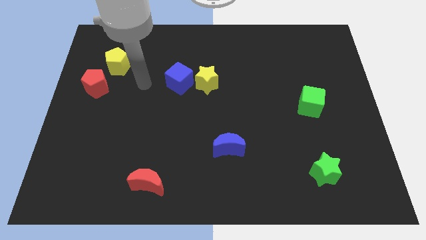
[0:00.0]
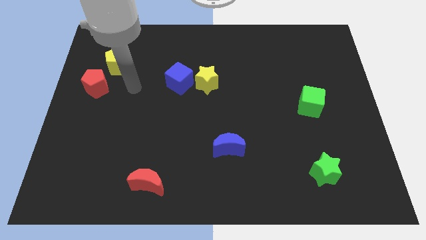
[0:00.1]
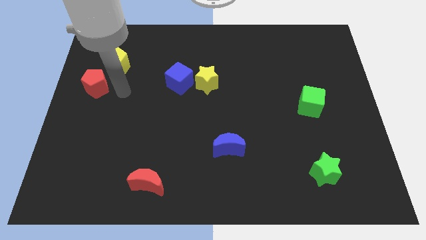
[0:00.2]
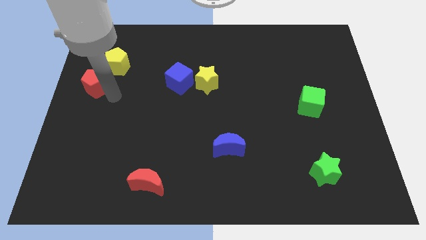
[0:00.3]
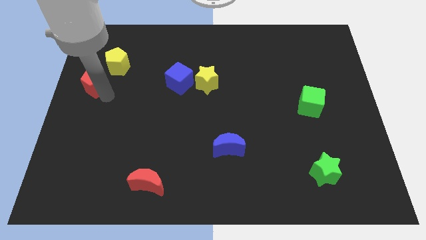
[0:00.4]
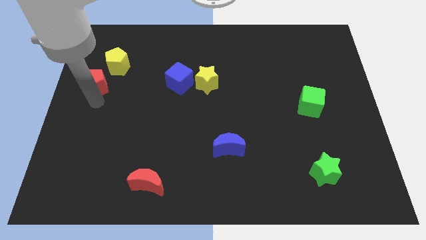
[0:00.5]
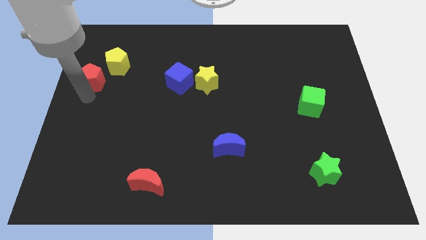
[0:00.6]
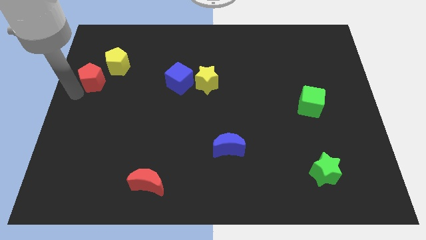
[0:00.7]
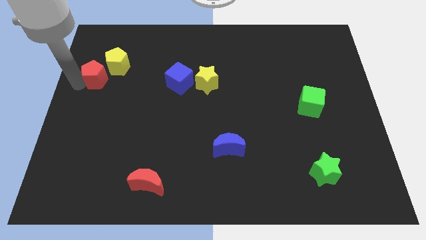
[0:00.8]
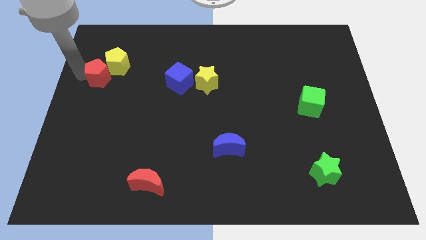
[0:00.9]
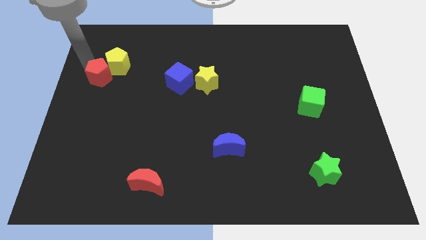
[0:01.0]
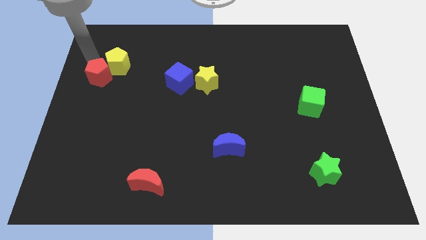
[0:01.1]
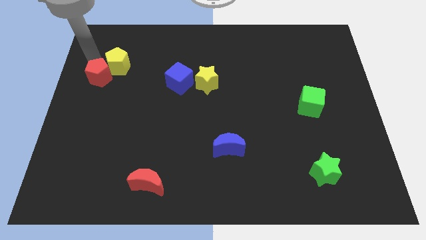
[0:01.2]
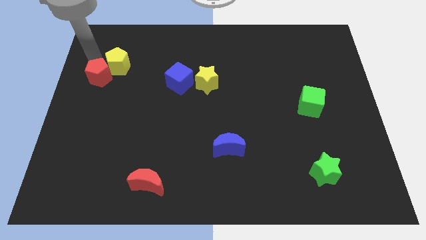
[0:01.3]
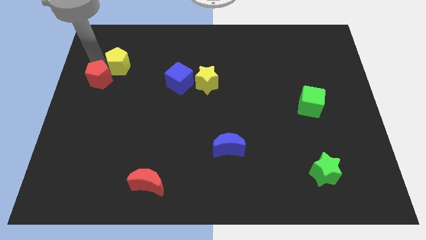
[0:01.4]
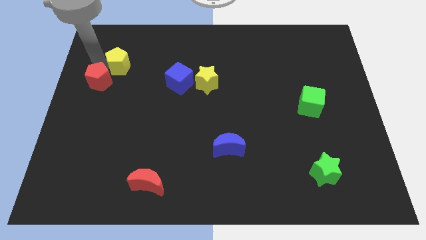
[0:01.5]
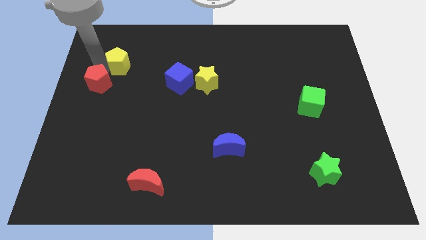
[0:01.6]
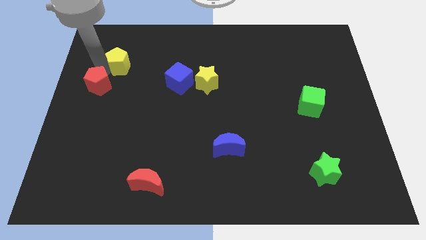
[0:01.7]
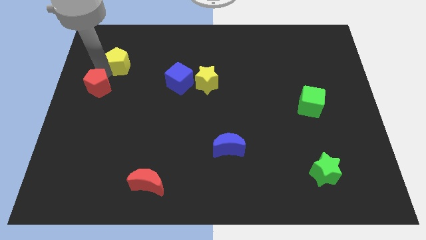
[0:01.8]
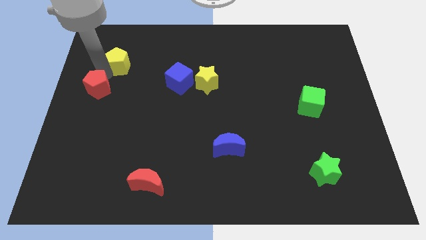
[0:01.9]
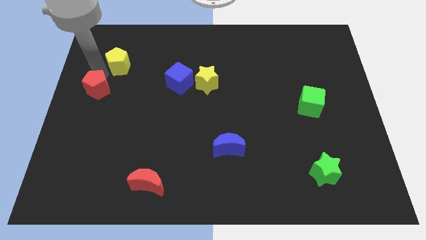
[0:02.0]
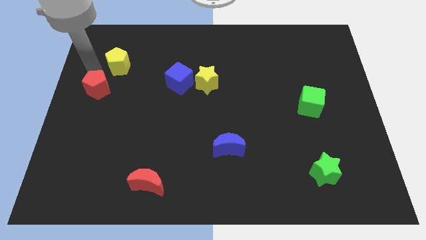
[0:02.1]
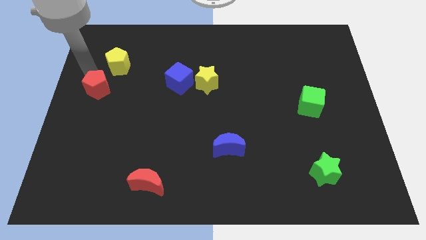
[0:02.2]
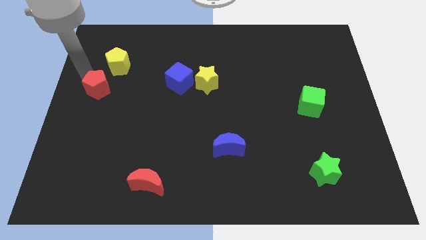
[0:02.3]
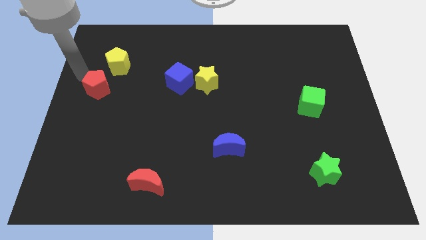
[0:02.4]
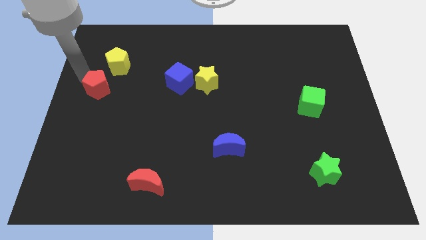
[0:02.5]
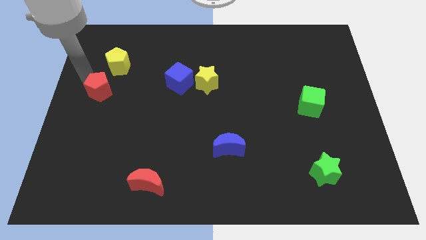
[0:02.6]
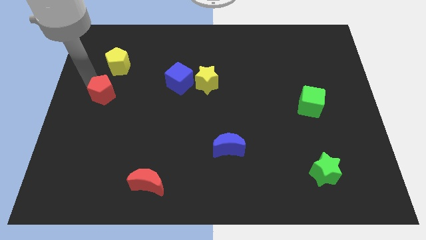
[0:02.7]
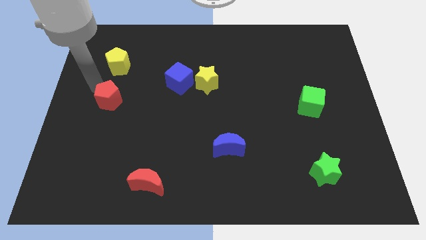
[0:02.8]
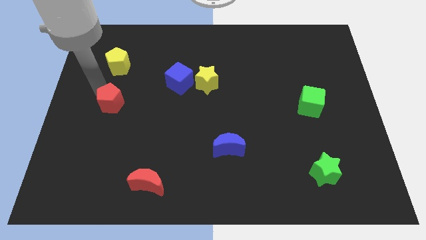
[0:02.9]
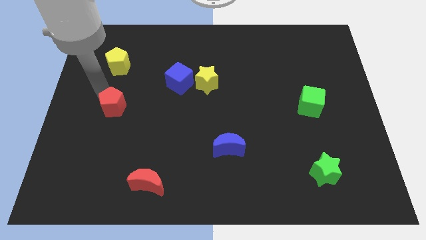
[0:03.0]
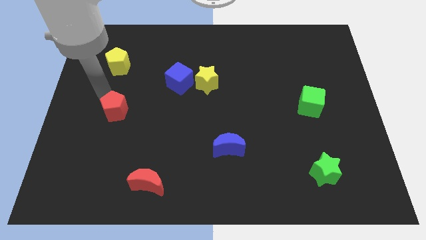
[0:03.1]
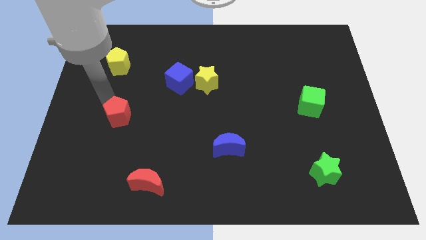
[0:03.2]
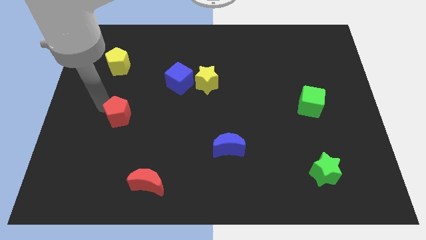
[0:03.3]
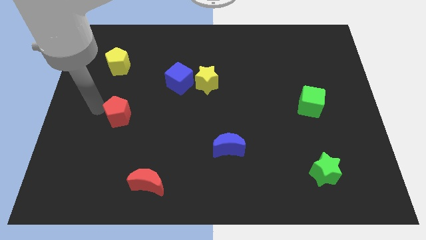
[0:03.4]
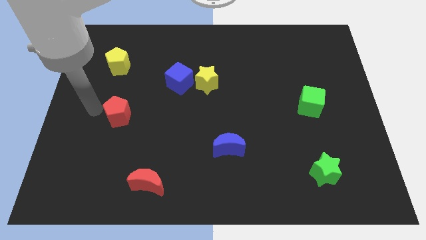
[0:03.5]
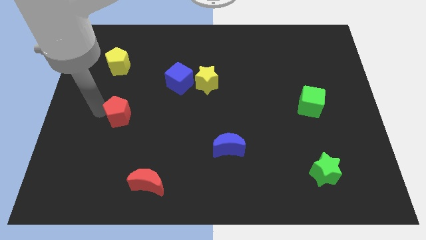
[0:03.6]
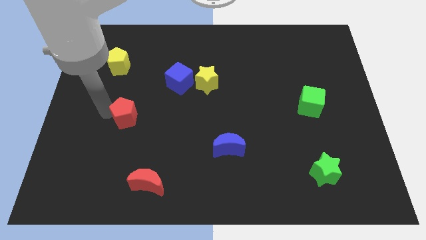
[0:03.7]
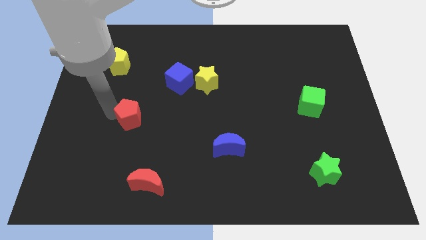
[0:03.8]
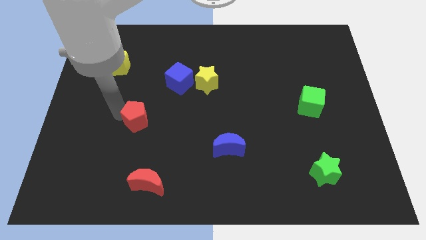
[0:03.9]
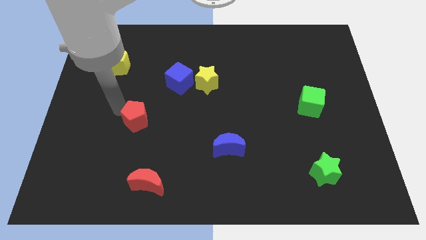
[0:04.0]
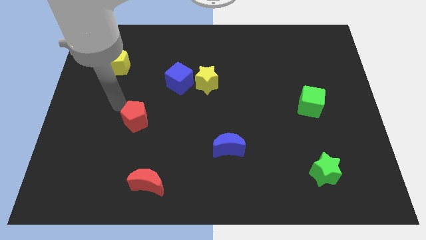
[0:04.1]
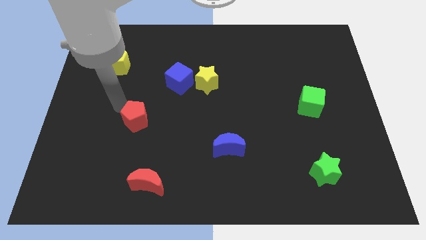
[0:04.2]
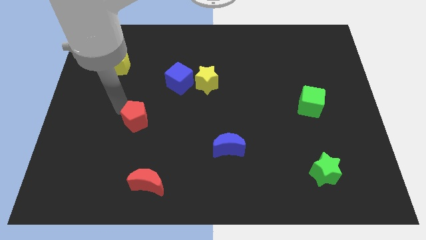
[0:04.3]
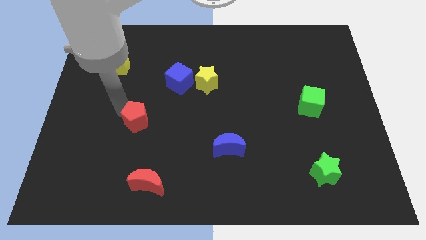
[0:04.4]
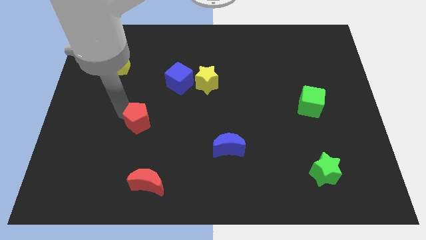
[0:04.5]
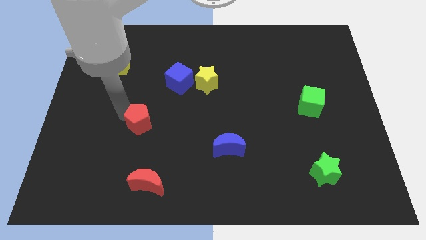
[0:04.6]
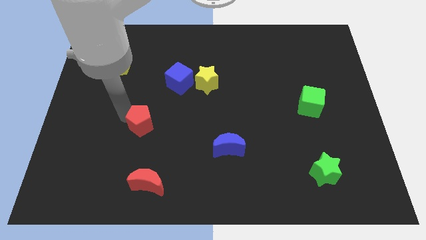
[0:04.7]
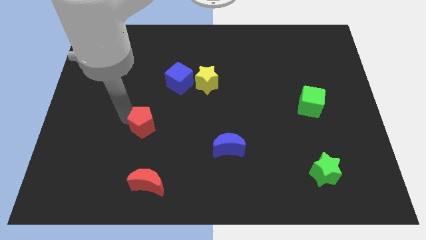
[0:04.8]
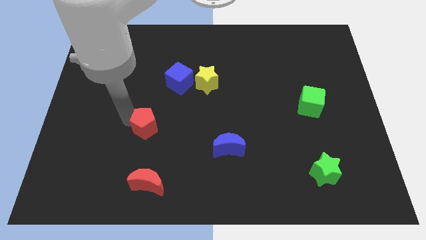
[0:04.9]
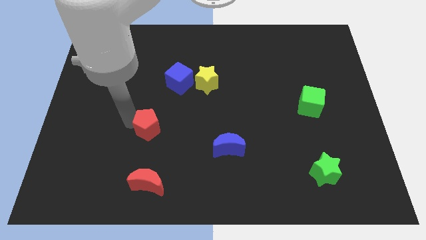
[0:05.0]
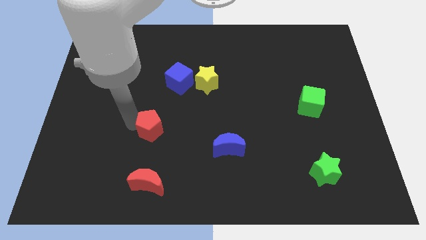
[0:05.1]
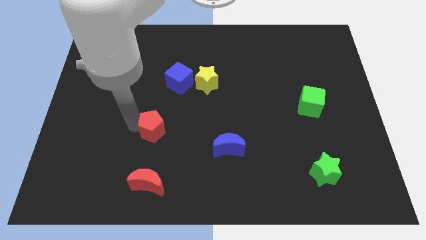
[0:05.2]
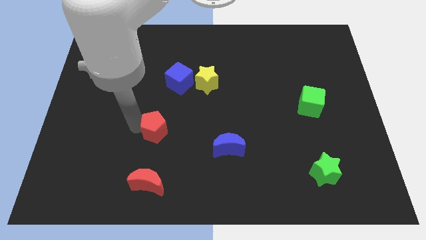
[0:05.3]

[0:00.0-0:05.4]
move the red pentagon diagonally down and to the right

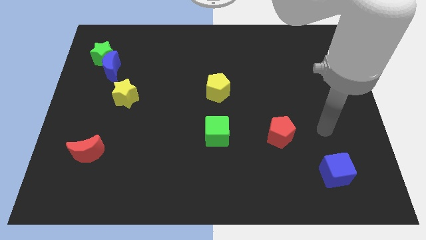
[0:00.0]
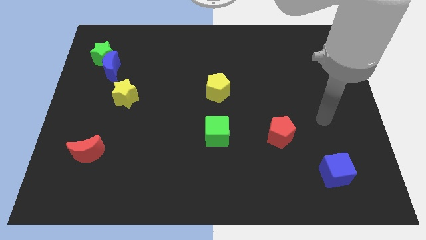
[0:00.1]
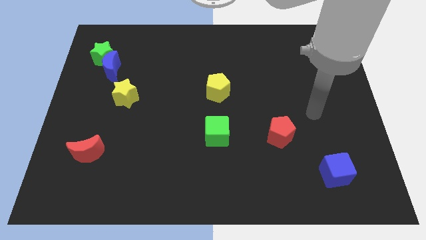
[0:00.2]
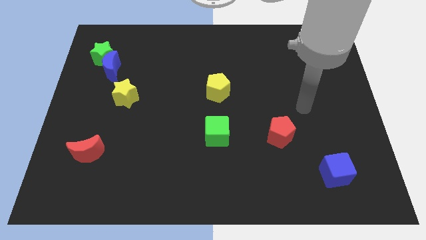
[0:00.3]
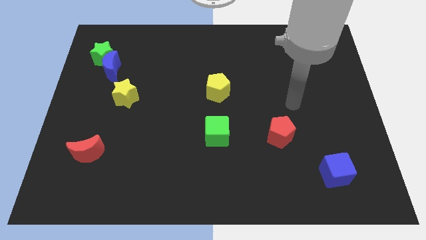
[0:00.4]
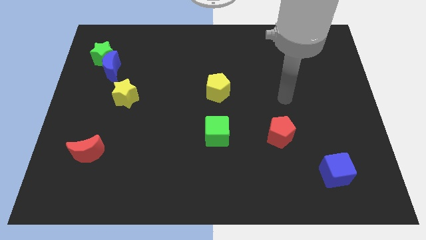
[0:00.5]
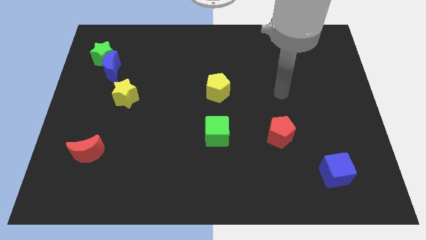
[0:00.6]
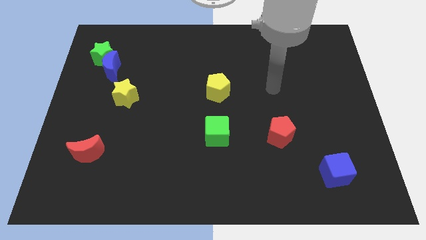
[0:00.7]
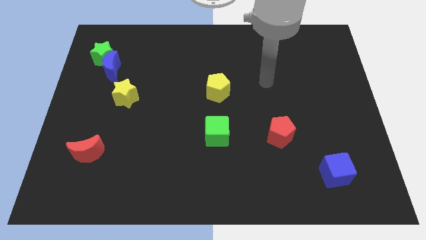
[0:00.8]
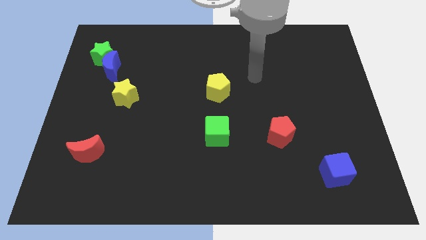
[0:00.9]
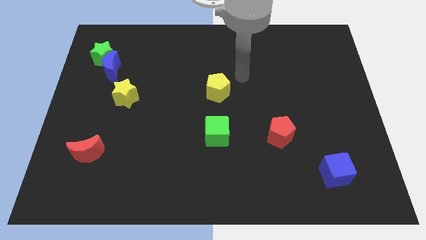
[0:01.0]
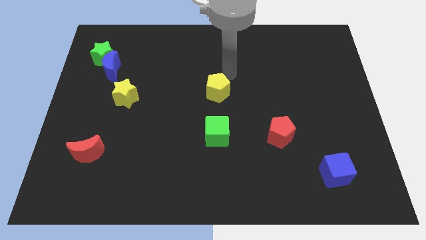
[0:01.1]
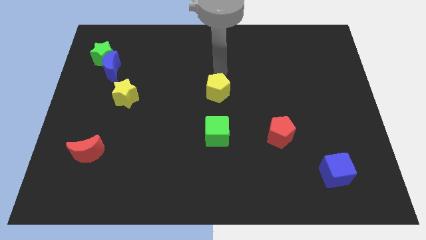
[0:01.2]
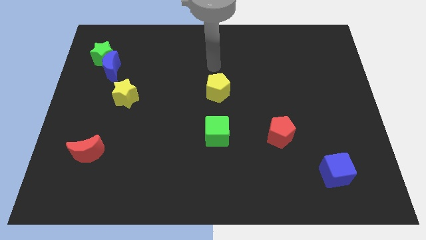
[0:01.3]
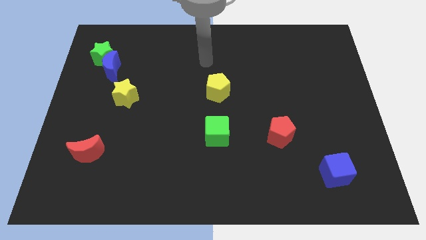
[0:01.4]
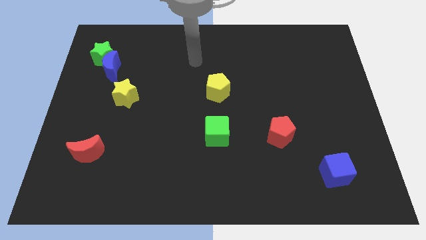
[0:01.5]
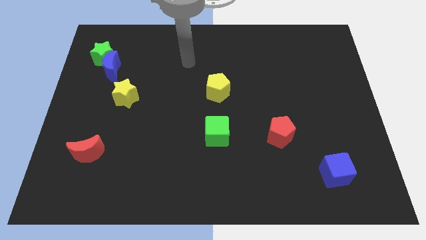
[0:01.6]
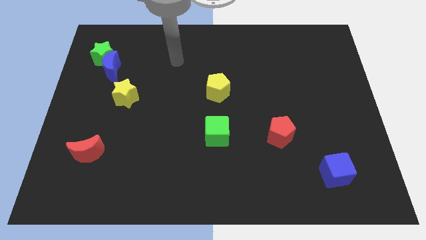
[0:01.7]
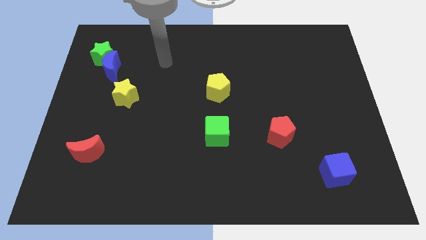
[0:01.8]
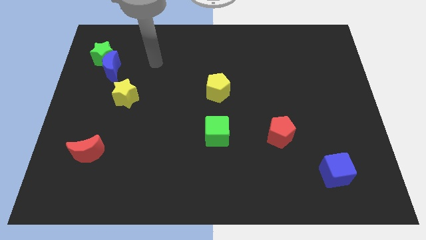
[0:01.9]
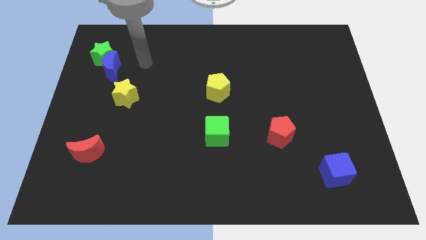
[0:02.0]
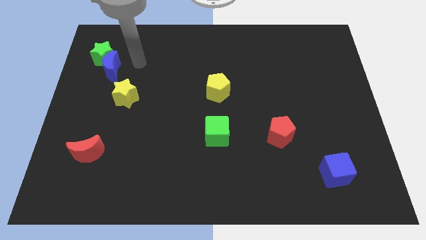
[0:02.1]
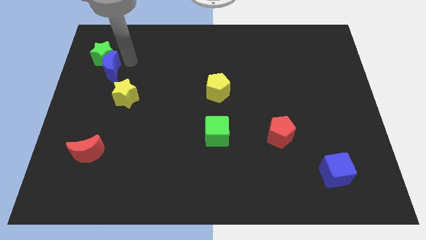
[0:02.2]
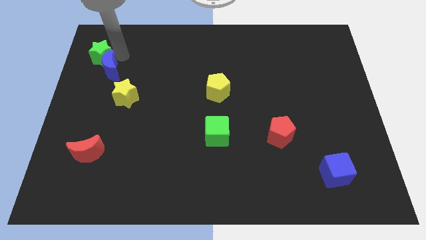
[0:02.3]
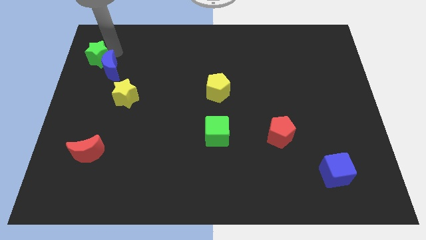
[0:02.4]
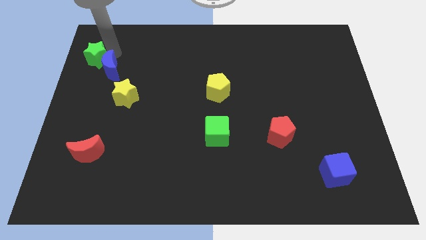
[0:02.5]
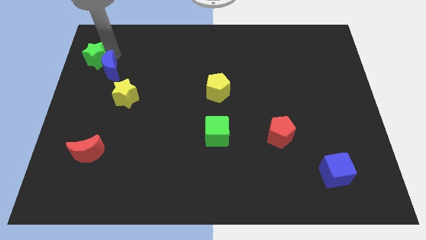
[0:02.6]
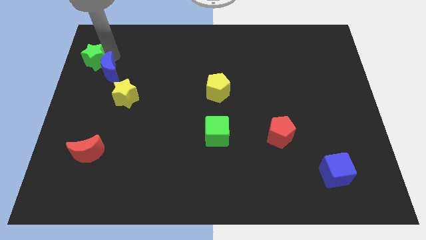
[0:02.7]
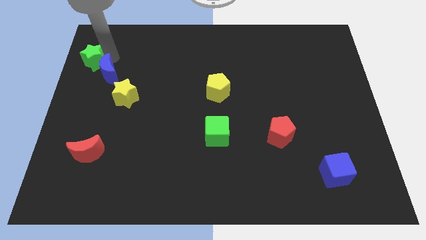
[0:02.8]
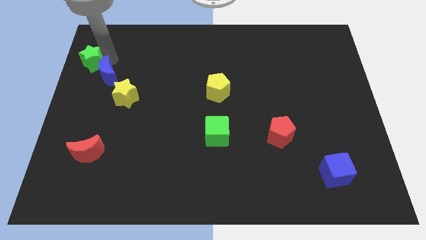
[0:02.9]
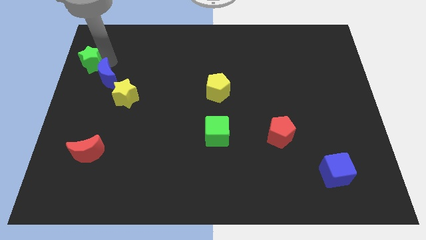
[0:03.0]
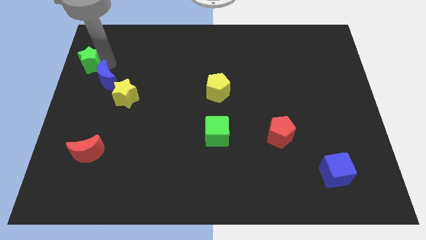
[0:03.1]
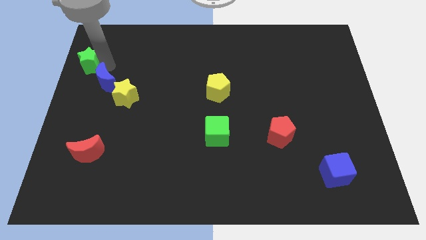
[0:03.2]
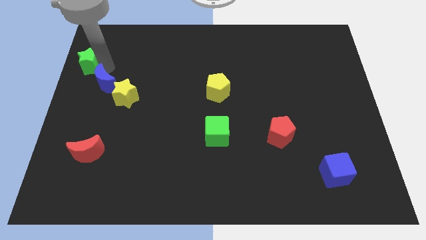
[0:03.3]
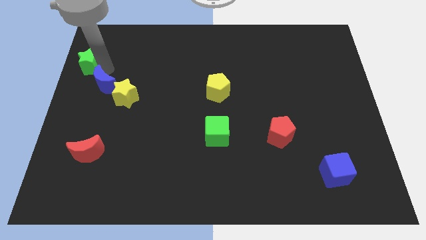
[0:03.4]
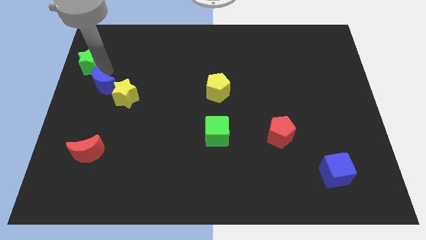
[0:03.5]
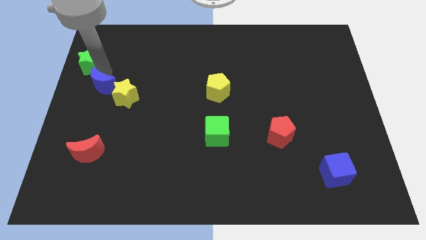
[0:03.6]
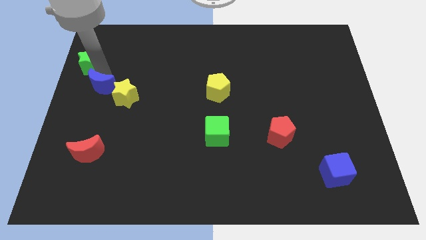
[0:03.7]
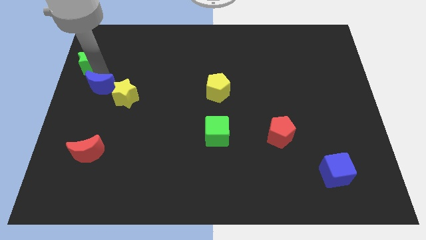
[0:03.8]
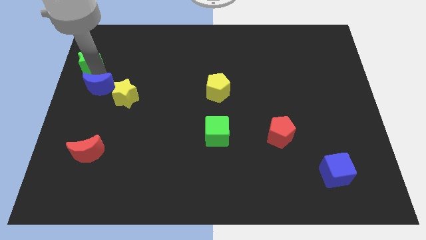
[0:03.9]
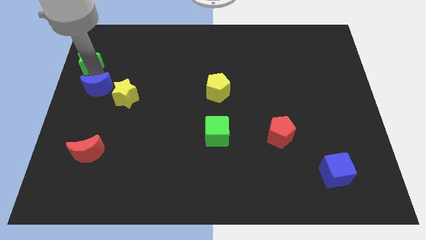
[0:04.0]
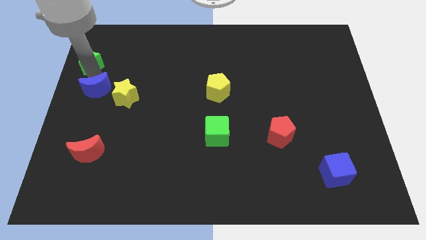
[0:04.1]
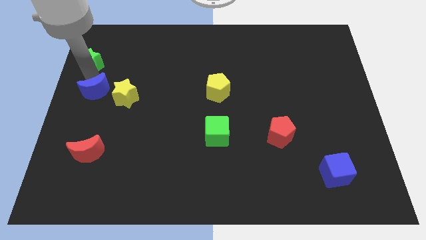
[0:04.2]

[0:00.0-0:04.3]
push the blue moon a little bit down
